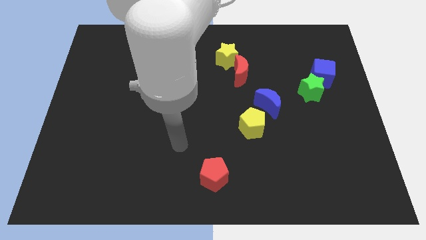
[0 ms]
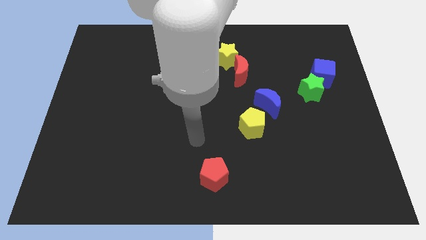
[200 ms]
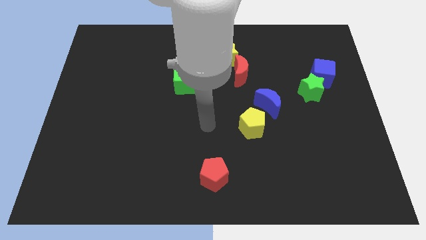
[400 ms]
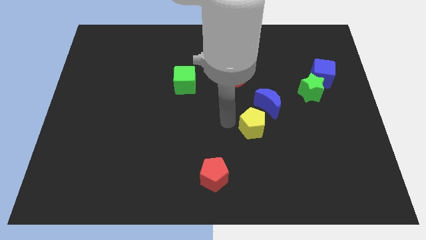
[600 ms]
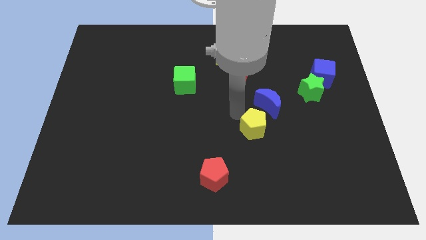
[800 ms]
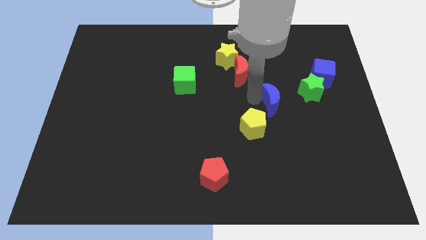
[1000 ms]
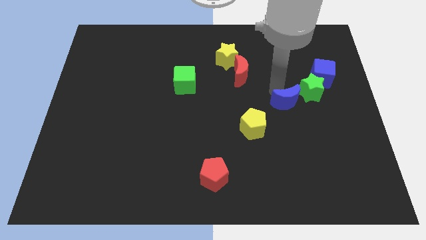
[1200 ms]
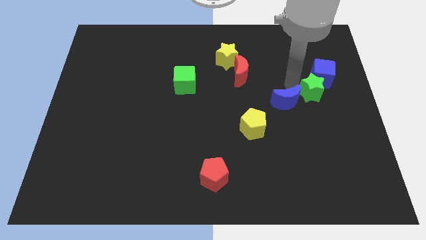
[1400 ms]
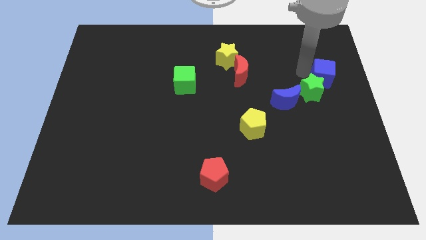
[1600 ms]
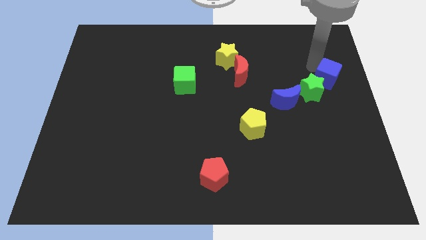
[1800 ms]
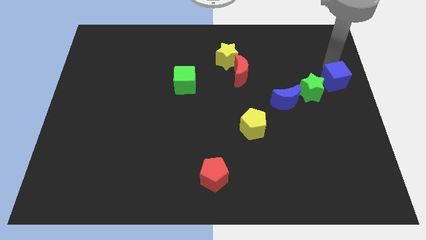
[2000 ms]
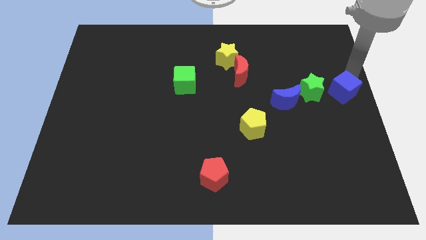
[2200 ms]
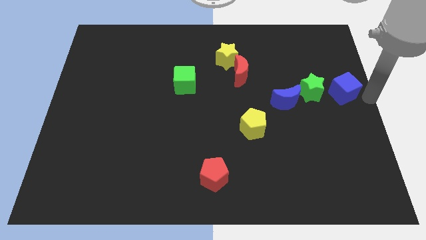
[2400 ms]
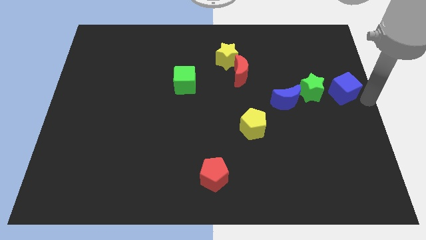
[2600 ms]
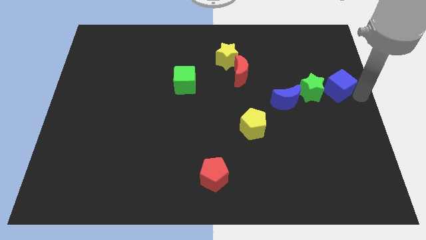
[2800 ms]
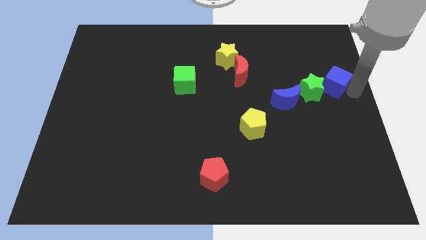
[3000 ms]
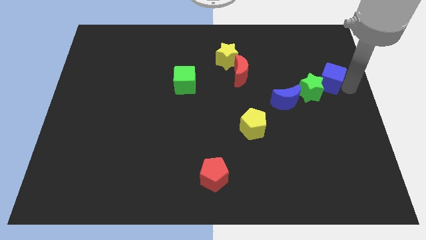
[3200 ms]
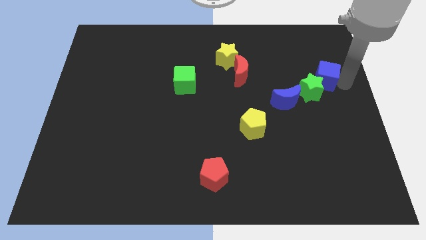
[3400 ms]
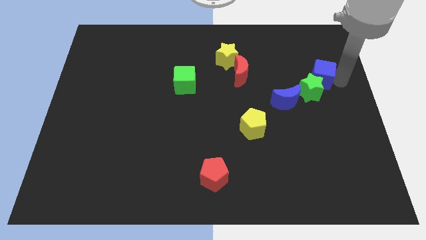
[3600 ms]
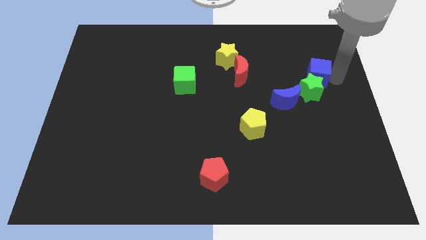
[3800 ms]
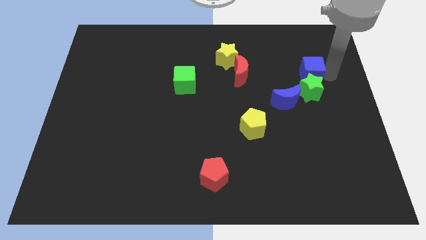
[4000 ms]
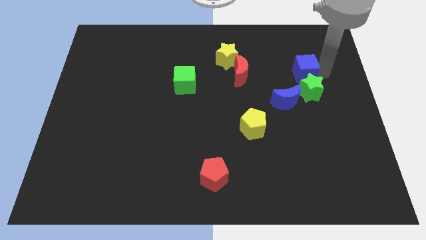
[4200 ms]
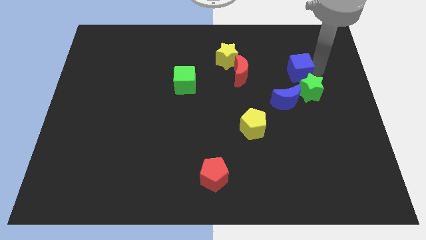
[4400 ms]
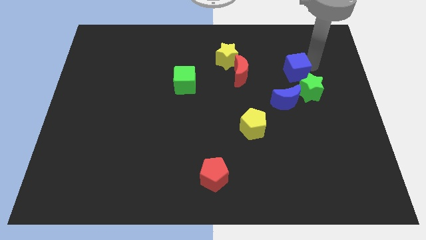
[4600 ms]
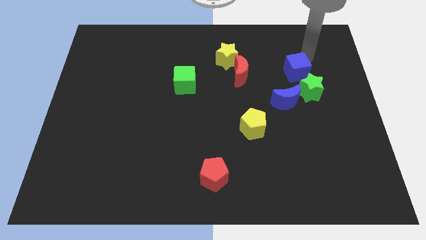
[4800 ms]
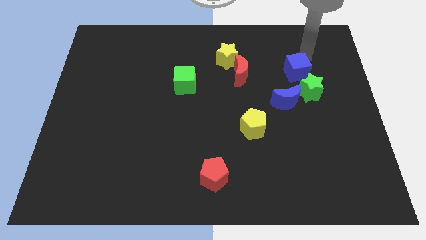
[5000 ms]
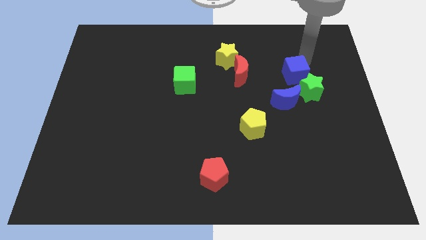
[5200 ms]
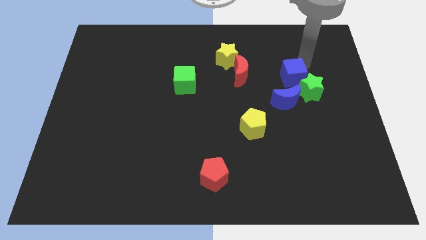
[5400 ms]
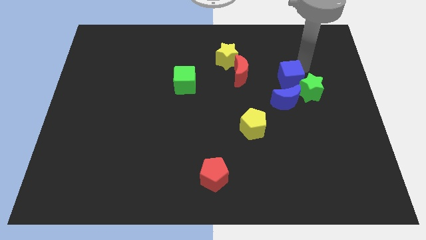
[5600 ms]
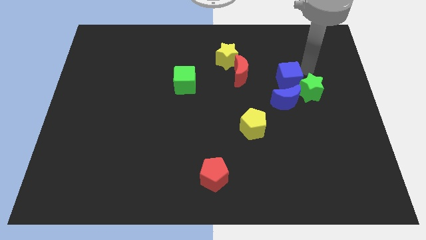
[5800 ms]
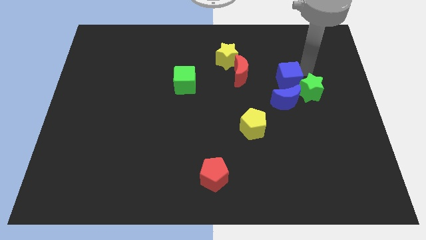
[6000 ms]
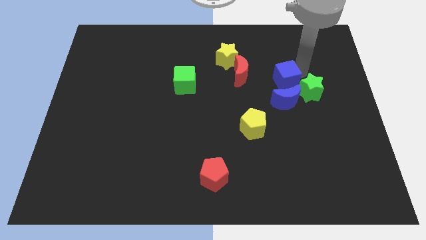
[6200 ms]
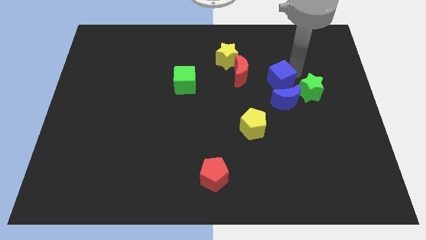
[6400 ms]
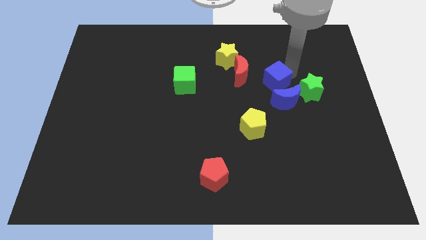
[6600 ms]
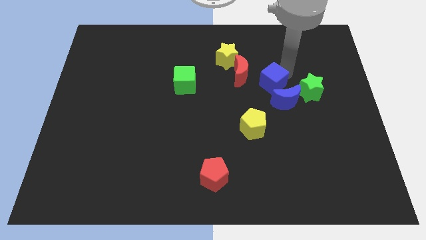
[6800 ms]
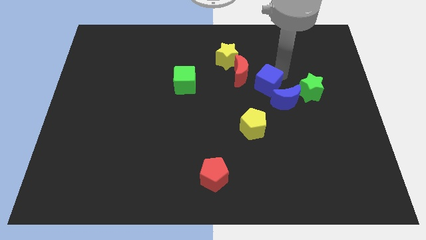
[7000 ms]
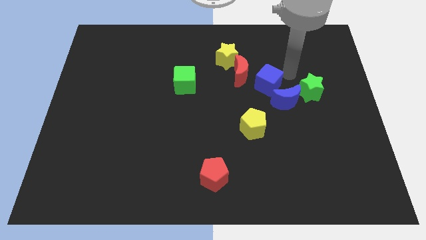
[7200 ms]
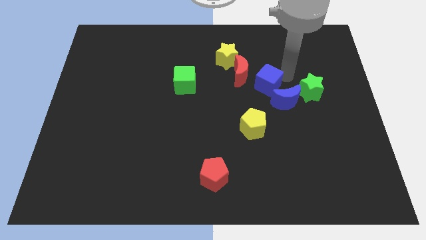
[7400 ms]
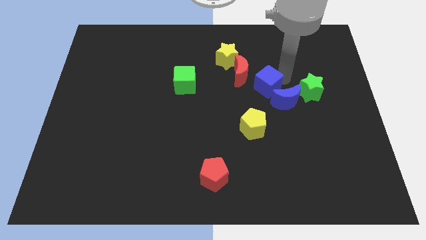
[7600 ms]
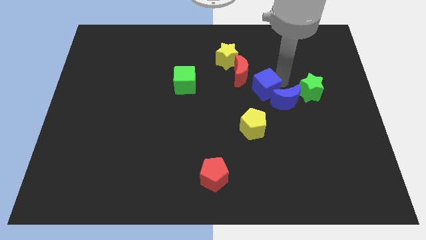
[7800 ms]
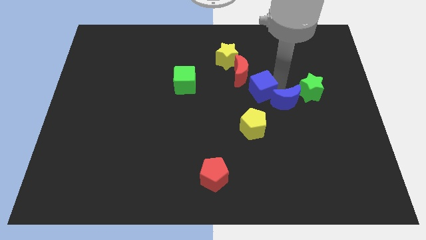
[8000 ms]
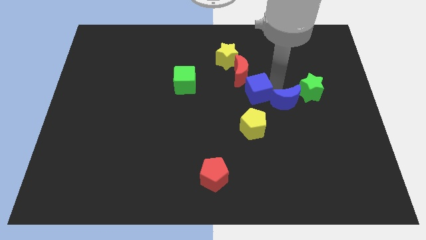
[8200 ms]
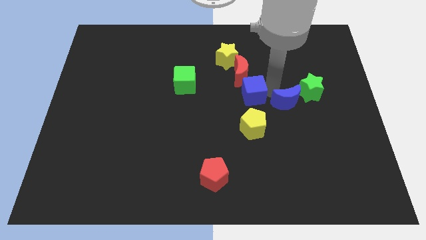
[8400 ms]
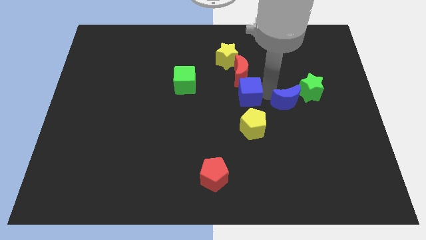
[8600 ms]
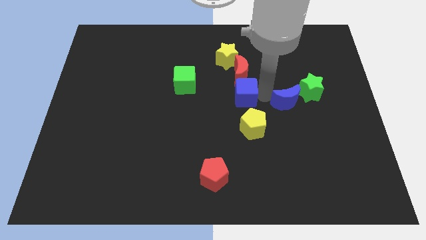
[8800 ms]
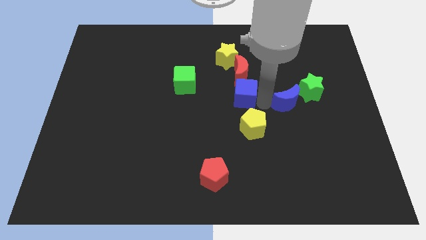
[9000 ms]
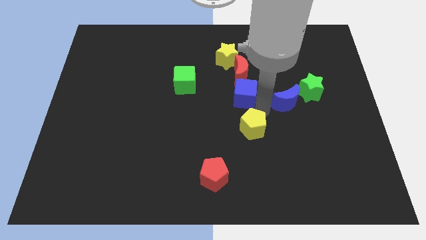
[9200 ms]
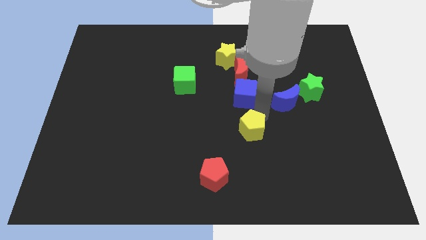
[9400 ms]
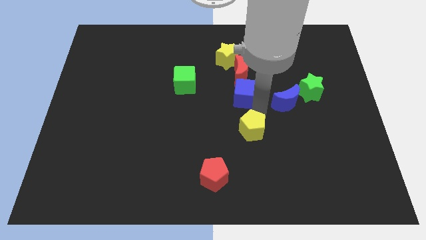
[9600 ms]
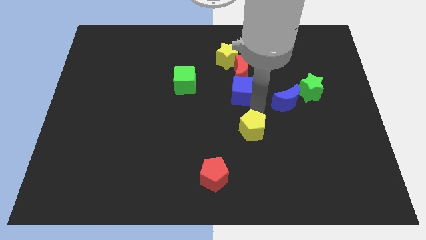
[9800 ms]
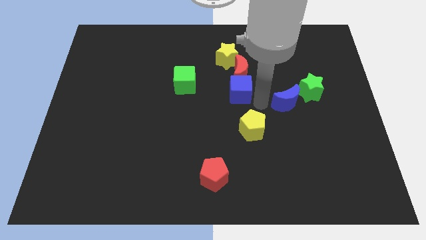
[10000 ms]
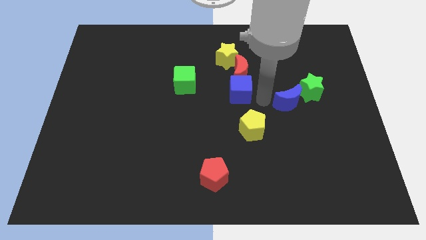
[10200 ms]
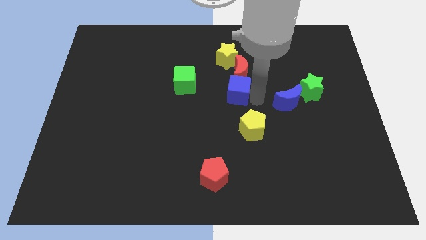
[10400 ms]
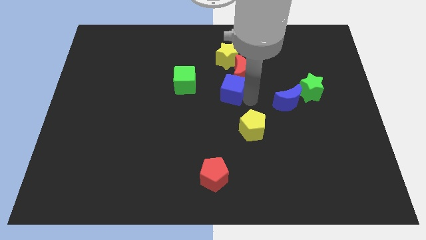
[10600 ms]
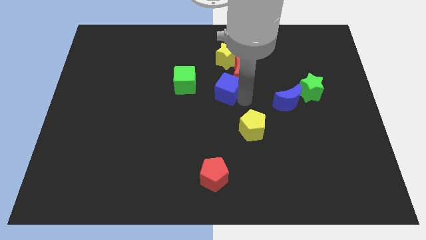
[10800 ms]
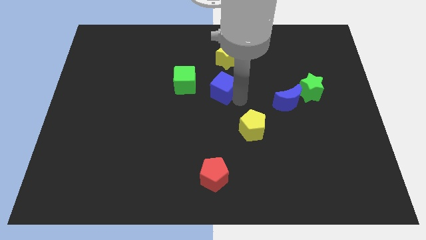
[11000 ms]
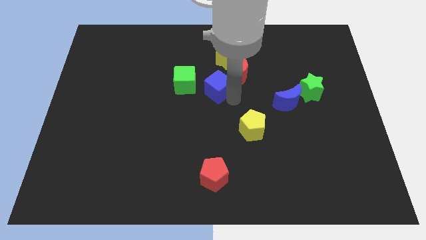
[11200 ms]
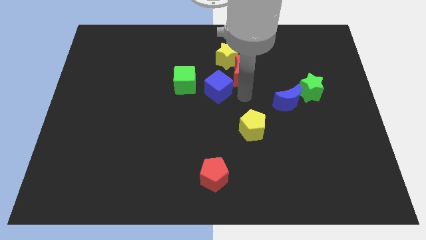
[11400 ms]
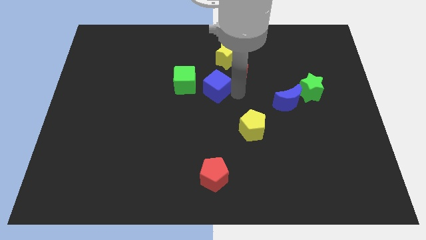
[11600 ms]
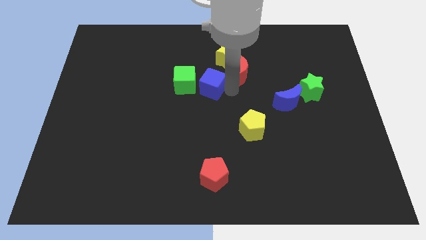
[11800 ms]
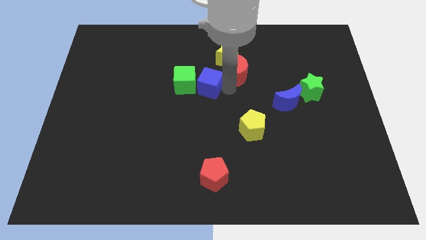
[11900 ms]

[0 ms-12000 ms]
slide the blue cube close to the green cube

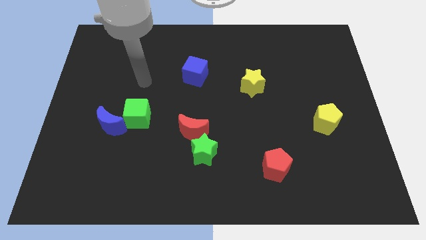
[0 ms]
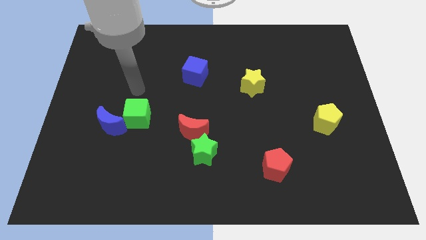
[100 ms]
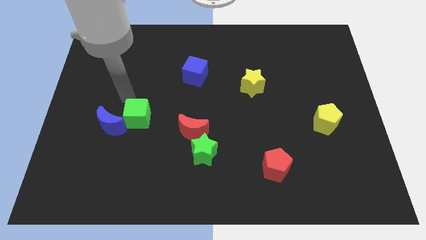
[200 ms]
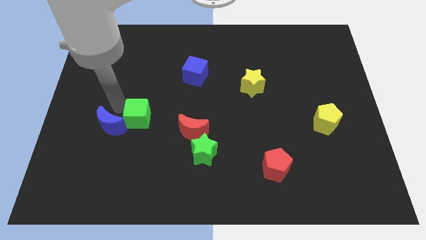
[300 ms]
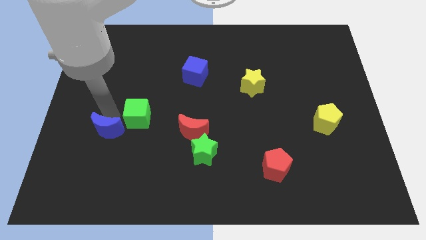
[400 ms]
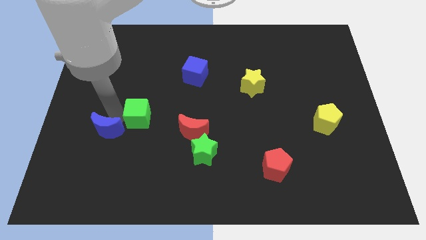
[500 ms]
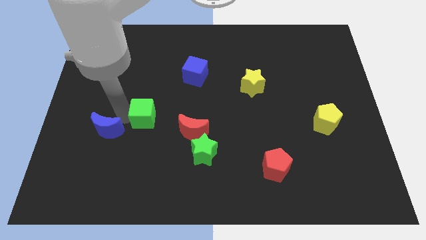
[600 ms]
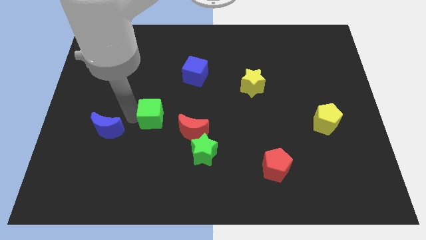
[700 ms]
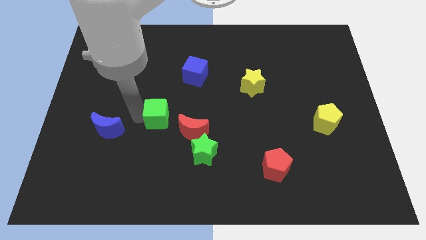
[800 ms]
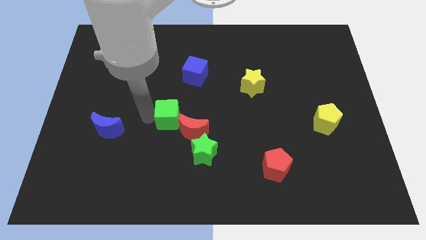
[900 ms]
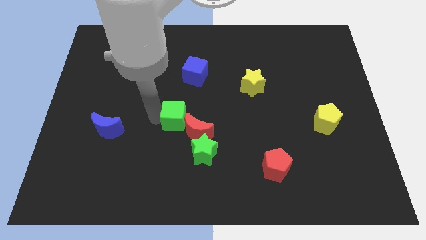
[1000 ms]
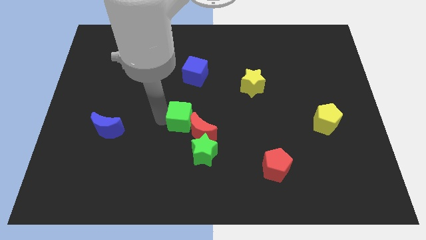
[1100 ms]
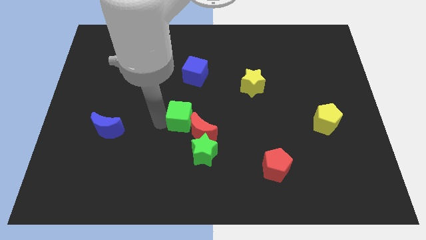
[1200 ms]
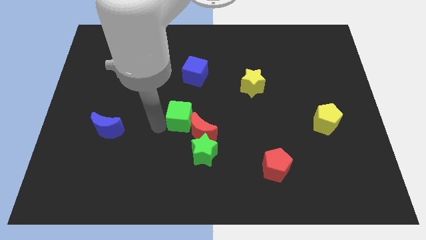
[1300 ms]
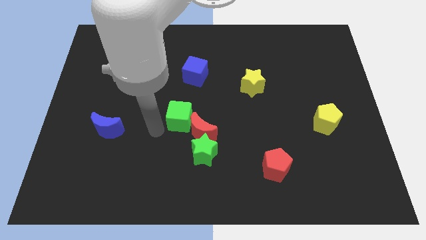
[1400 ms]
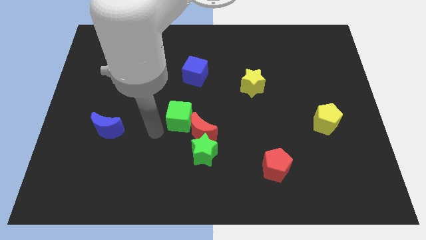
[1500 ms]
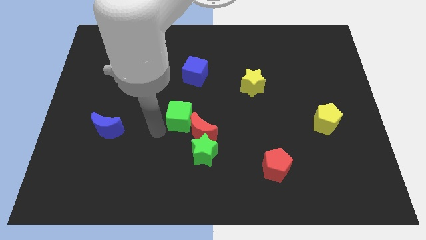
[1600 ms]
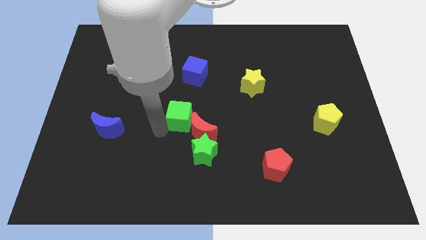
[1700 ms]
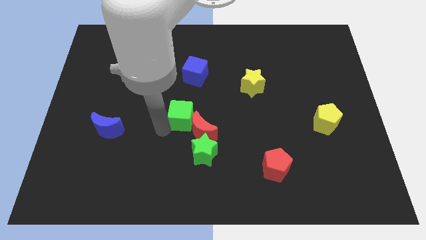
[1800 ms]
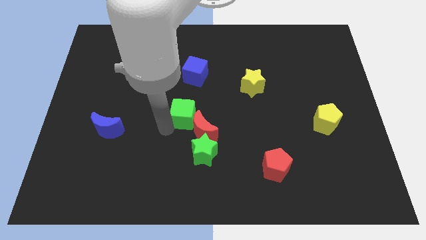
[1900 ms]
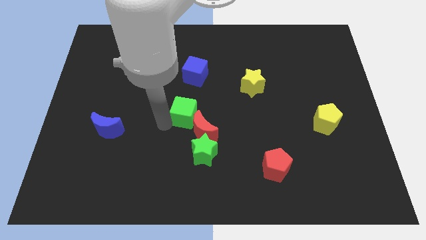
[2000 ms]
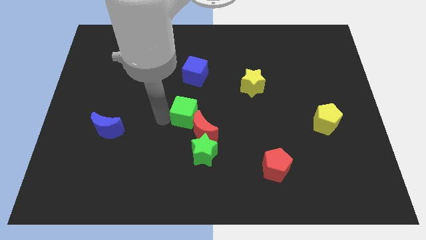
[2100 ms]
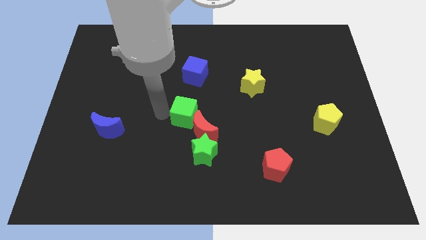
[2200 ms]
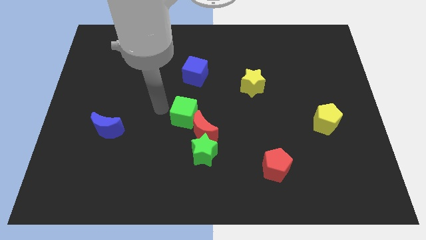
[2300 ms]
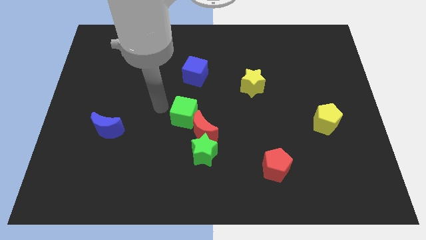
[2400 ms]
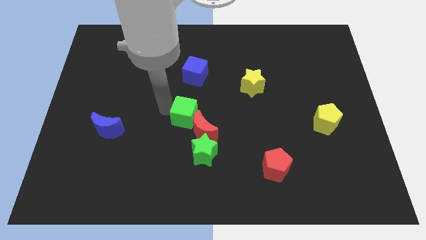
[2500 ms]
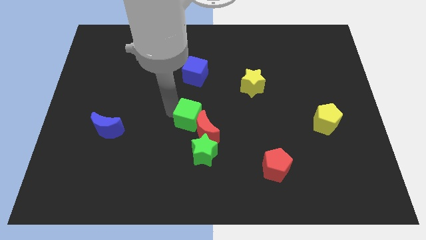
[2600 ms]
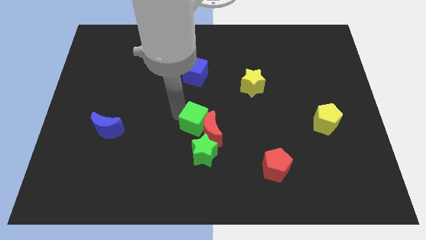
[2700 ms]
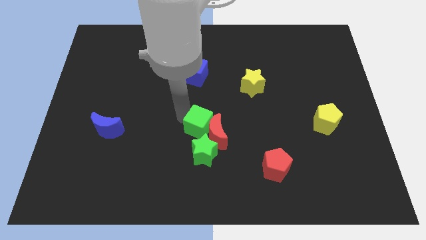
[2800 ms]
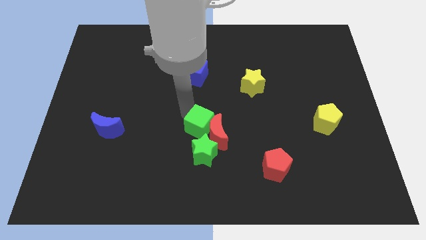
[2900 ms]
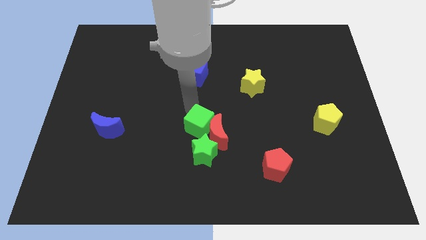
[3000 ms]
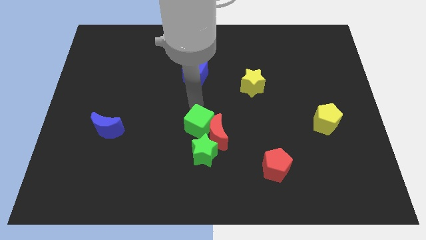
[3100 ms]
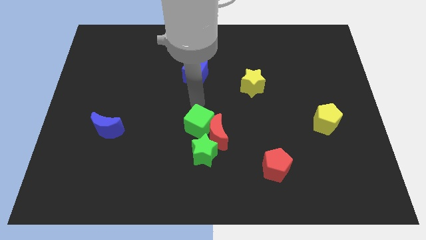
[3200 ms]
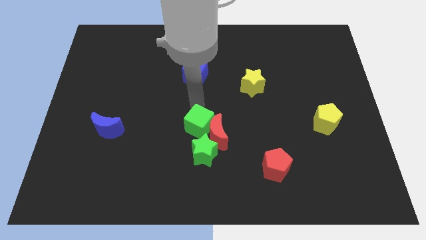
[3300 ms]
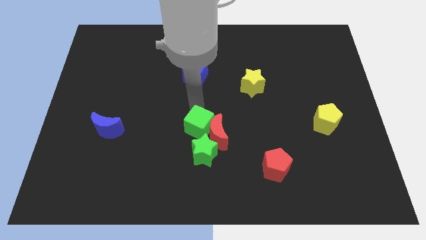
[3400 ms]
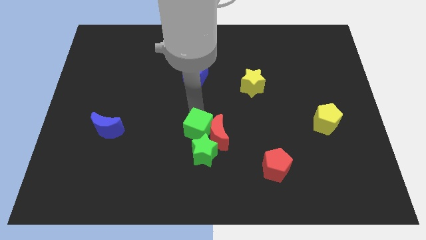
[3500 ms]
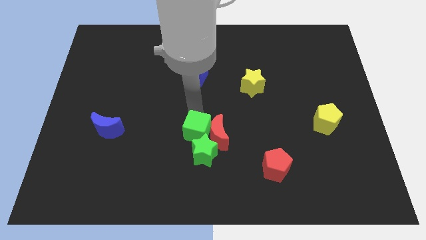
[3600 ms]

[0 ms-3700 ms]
put the green cube to the green star
